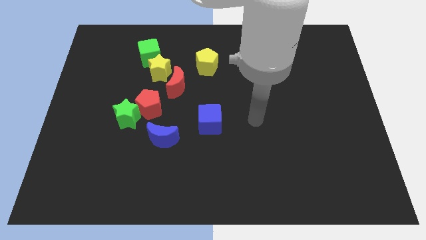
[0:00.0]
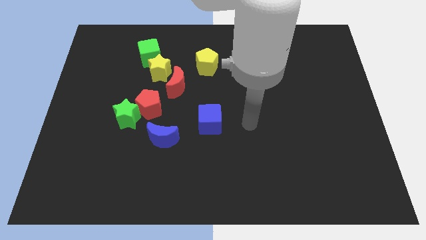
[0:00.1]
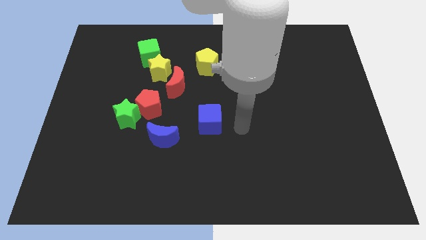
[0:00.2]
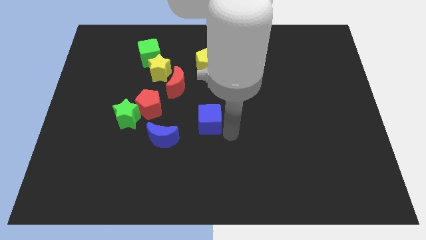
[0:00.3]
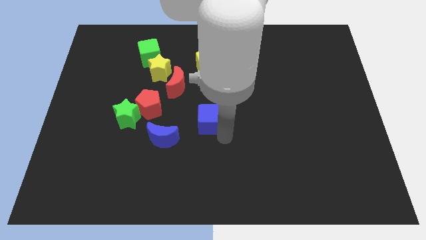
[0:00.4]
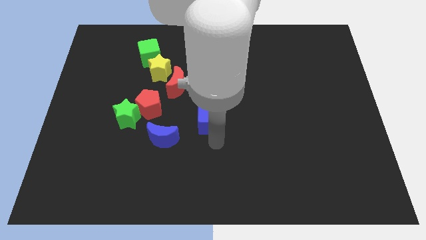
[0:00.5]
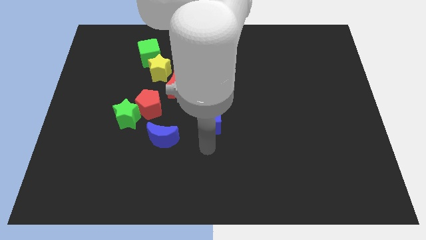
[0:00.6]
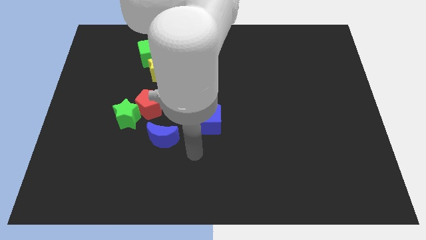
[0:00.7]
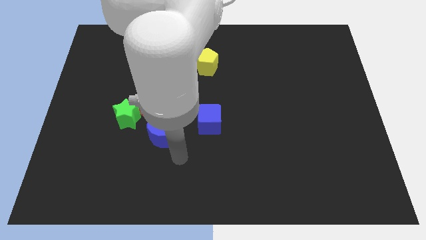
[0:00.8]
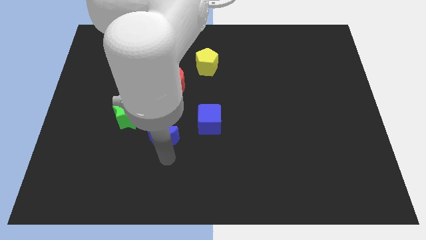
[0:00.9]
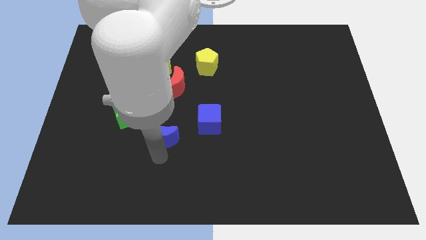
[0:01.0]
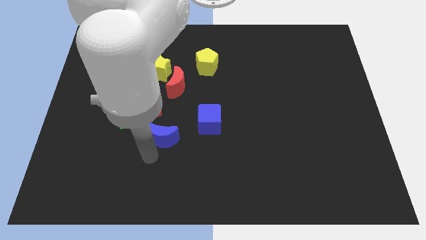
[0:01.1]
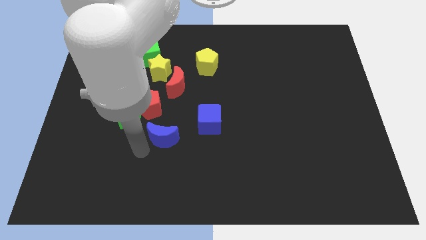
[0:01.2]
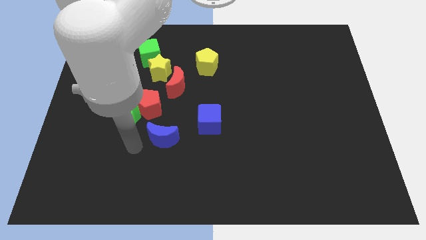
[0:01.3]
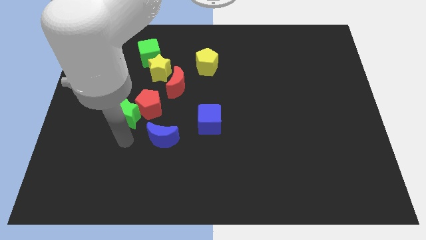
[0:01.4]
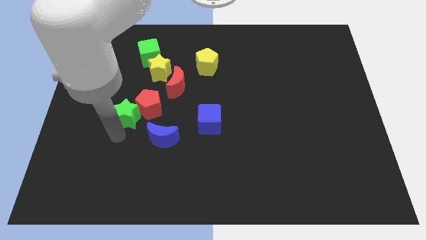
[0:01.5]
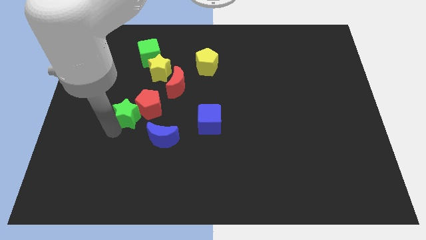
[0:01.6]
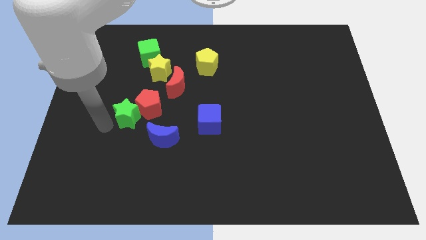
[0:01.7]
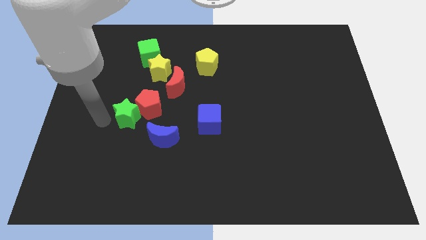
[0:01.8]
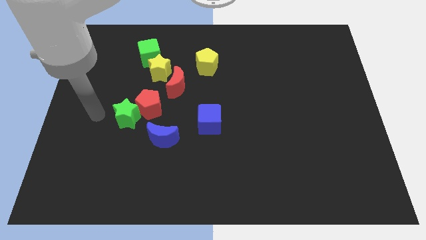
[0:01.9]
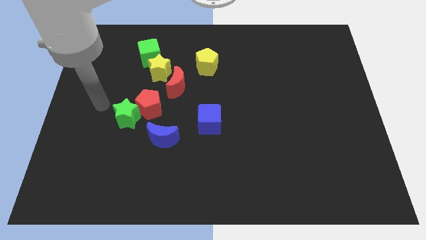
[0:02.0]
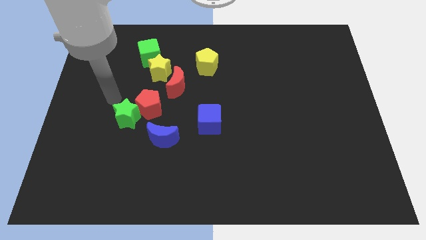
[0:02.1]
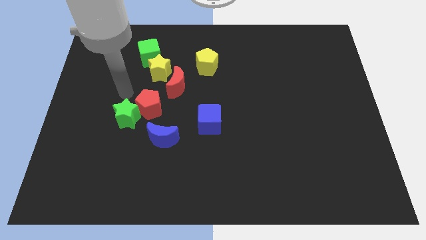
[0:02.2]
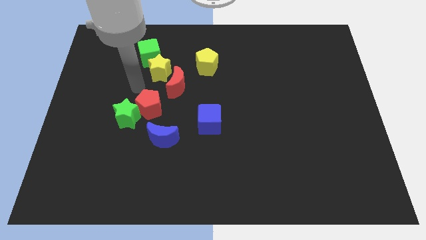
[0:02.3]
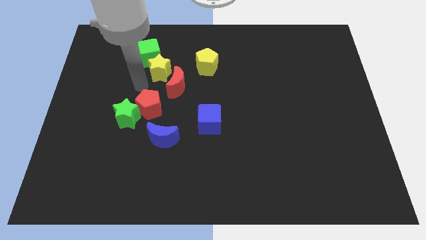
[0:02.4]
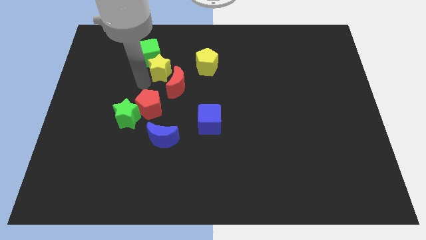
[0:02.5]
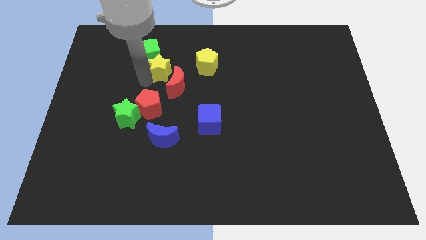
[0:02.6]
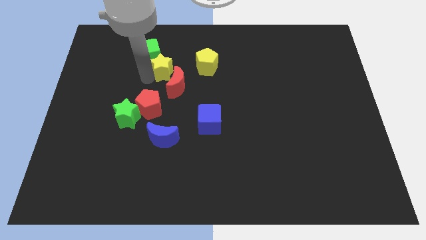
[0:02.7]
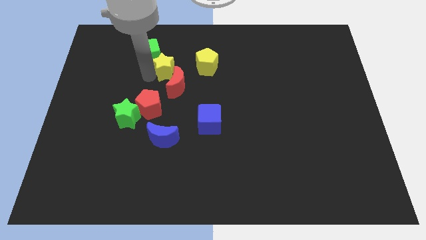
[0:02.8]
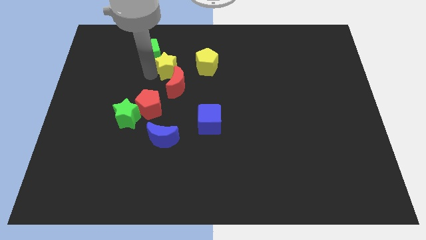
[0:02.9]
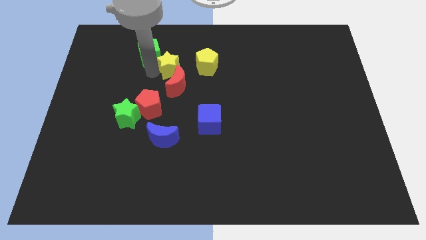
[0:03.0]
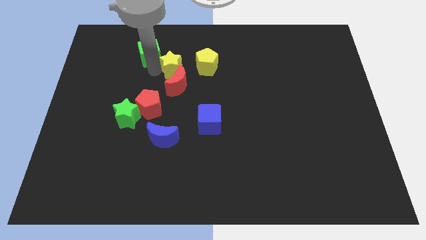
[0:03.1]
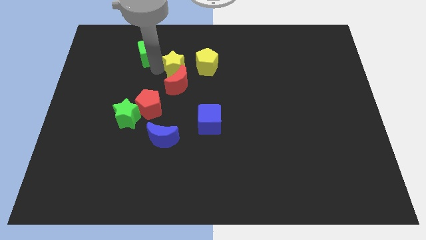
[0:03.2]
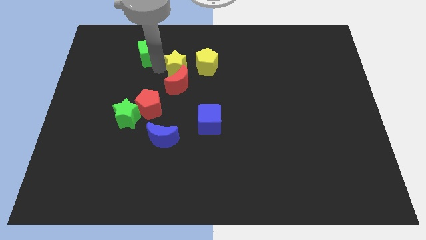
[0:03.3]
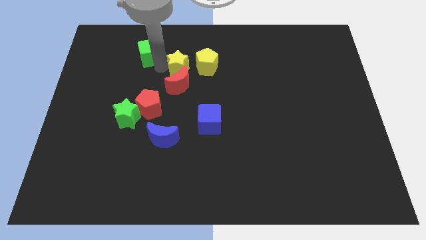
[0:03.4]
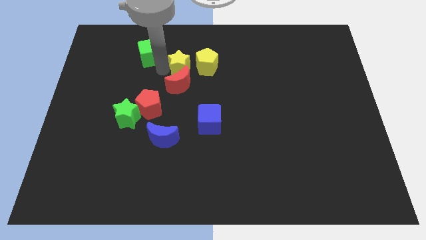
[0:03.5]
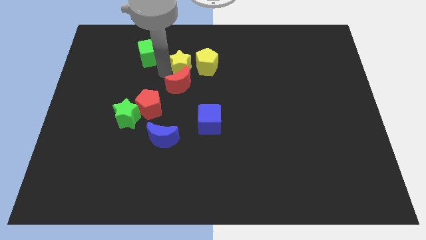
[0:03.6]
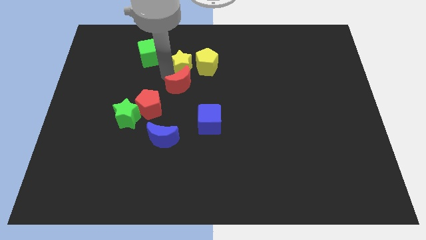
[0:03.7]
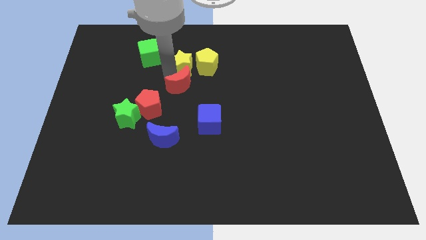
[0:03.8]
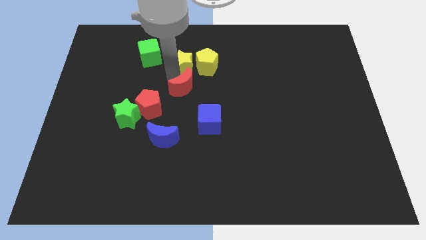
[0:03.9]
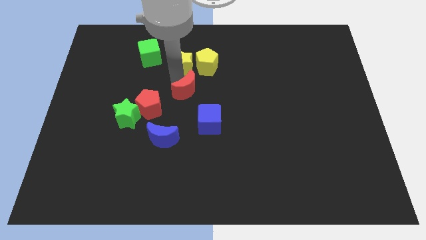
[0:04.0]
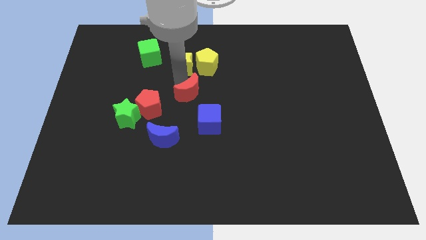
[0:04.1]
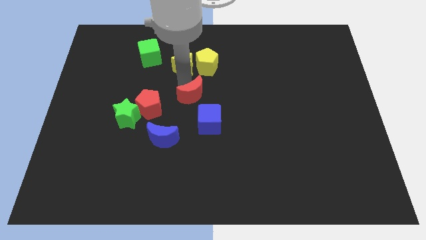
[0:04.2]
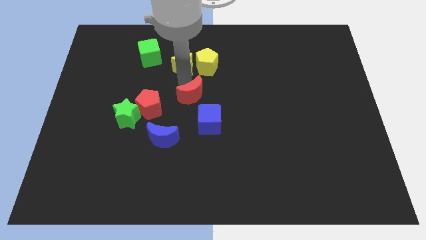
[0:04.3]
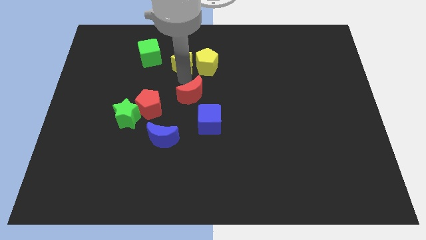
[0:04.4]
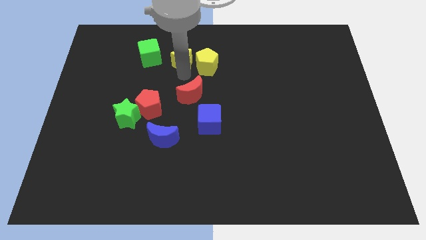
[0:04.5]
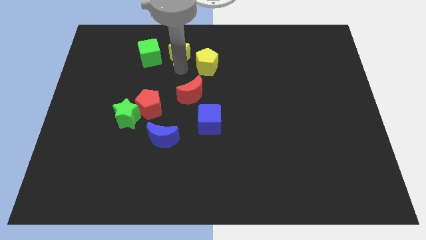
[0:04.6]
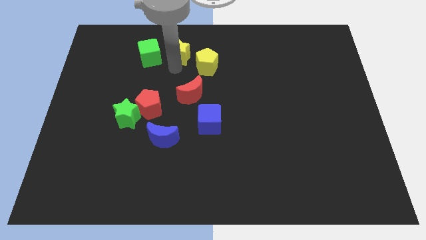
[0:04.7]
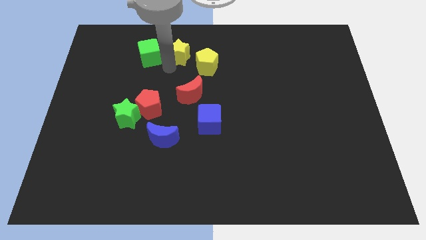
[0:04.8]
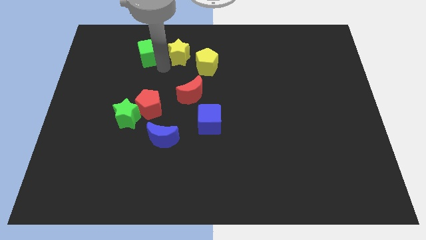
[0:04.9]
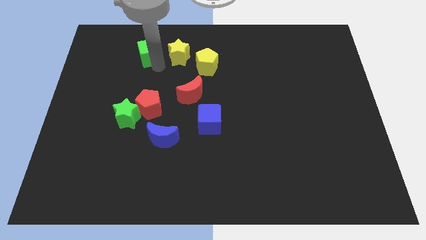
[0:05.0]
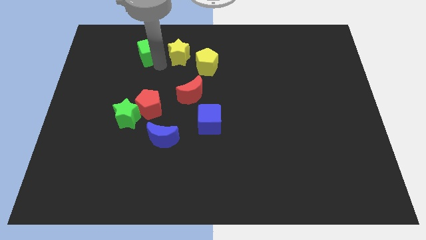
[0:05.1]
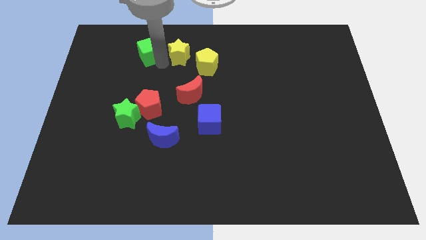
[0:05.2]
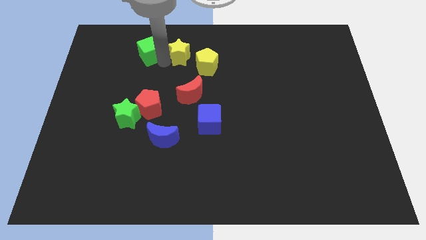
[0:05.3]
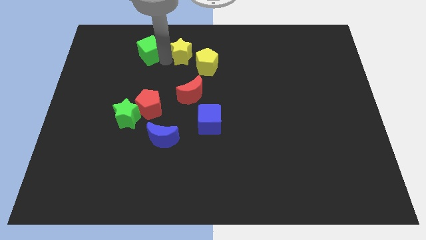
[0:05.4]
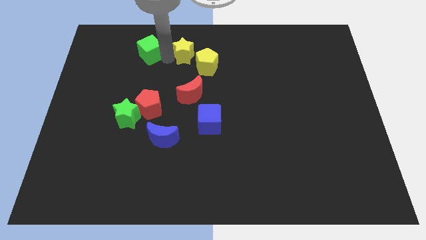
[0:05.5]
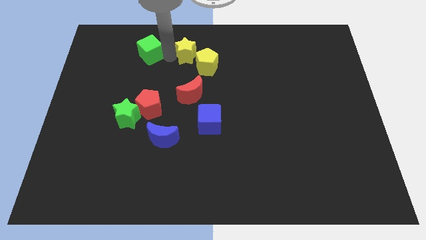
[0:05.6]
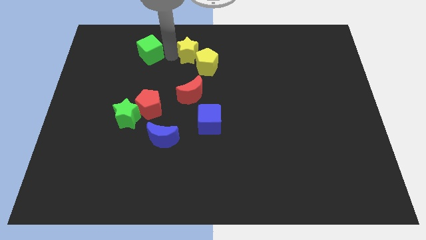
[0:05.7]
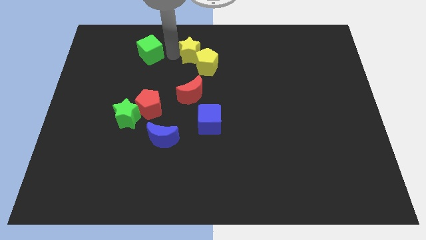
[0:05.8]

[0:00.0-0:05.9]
move the yellow star to the top side
